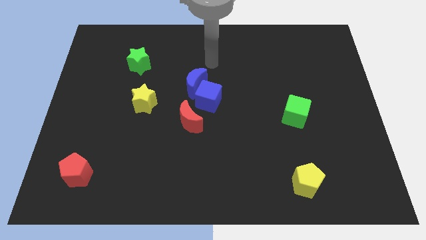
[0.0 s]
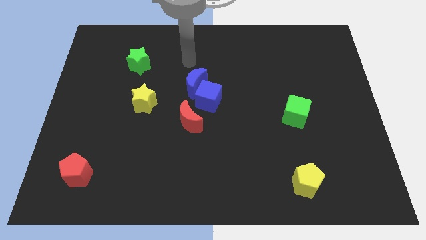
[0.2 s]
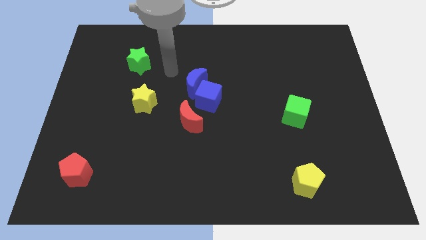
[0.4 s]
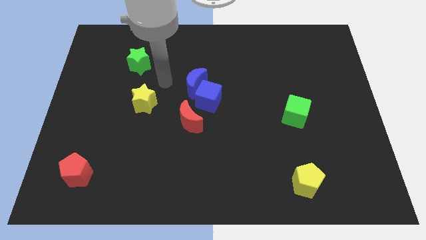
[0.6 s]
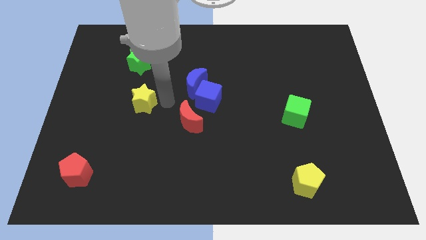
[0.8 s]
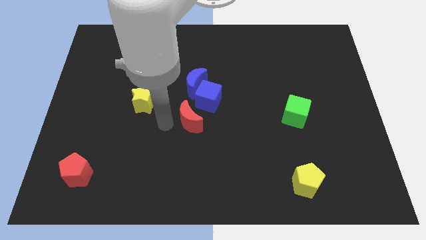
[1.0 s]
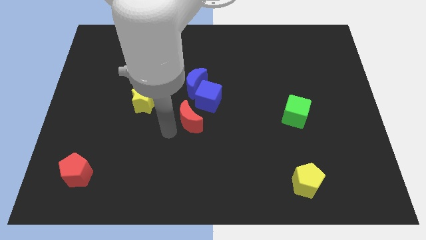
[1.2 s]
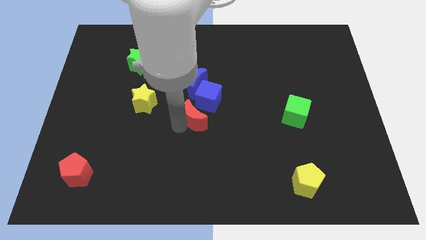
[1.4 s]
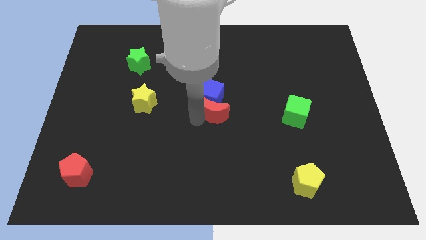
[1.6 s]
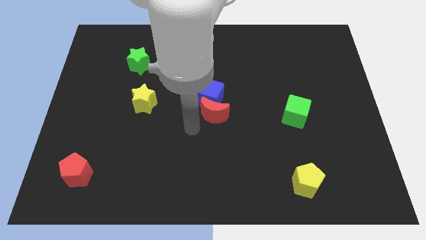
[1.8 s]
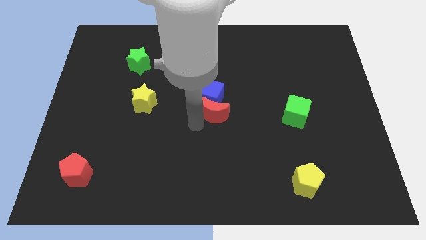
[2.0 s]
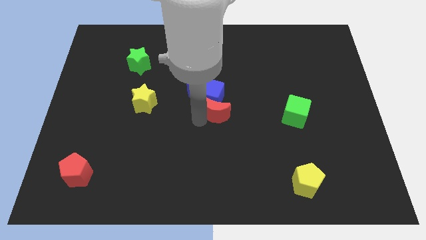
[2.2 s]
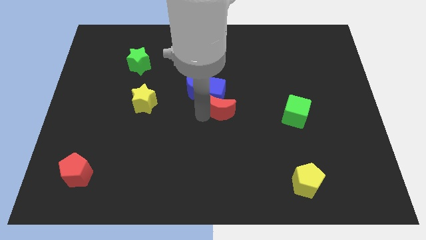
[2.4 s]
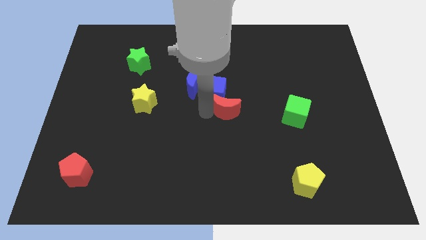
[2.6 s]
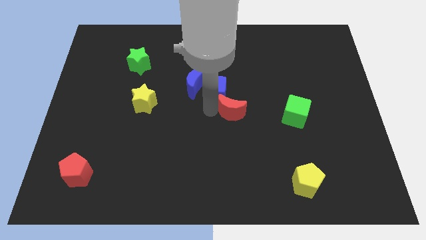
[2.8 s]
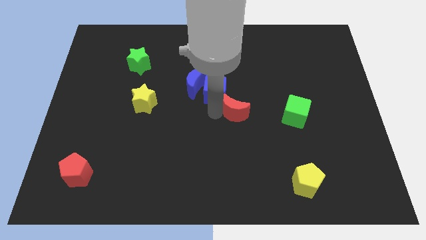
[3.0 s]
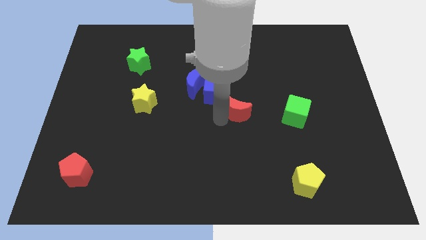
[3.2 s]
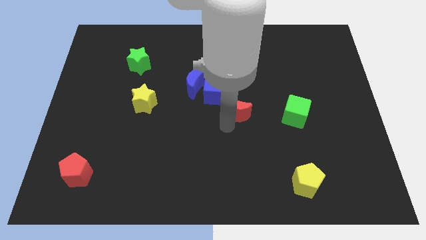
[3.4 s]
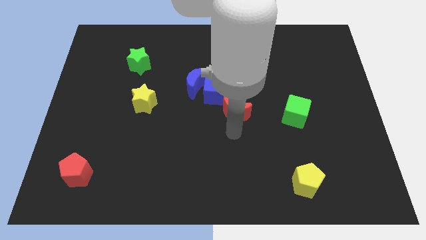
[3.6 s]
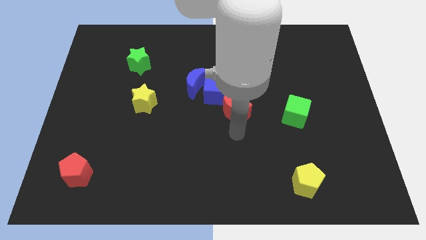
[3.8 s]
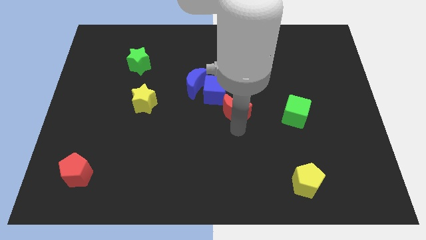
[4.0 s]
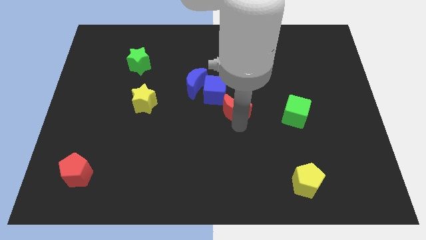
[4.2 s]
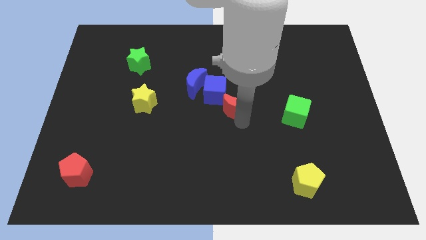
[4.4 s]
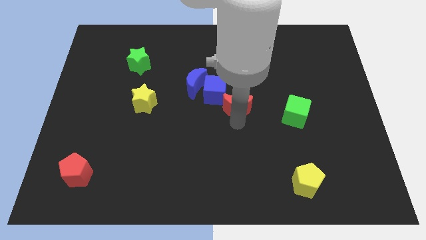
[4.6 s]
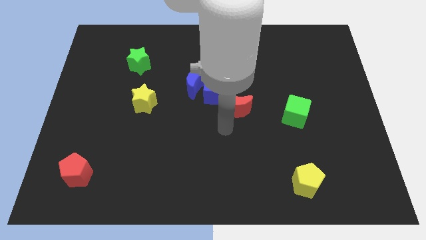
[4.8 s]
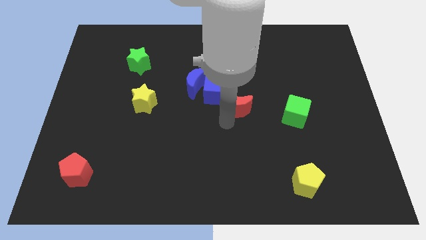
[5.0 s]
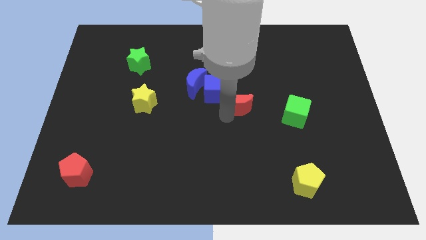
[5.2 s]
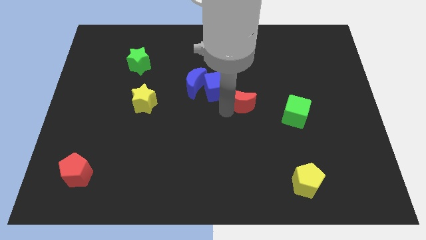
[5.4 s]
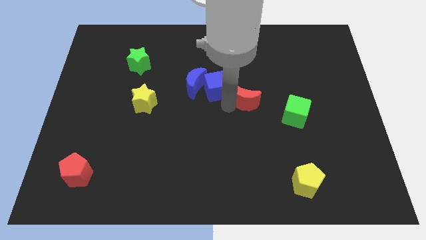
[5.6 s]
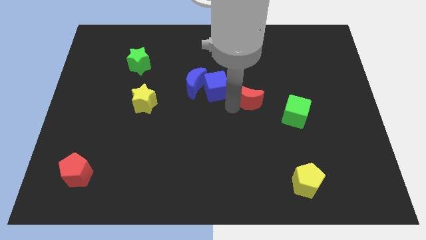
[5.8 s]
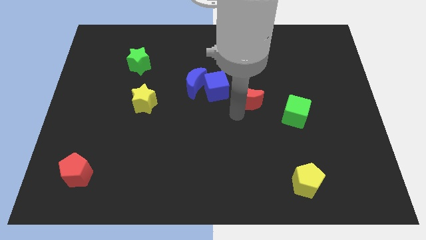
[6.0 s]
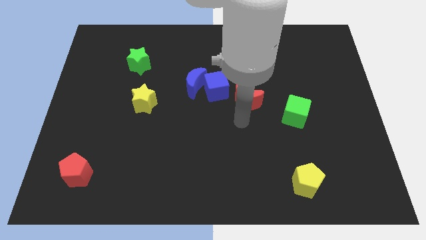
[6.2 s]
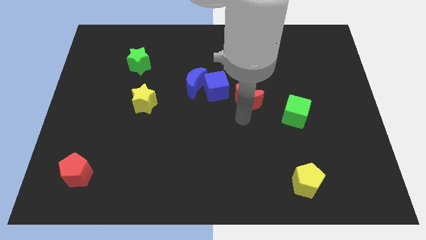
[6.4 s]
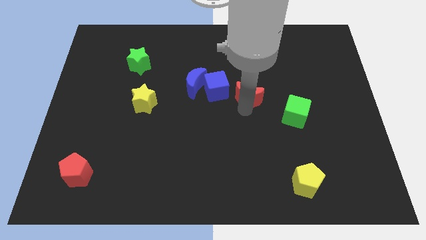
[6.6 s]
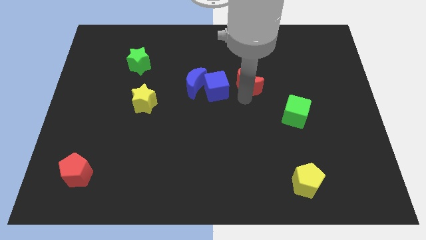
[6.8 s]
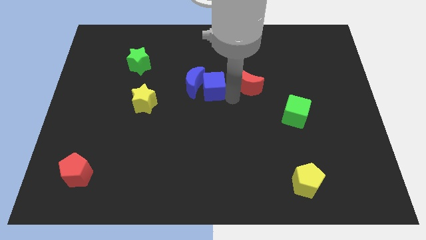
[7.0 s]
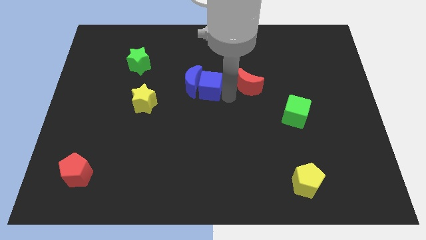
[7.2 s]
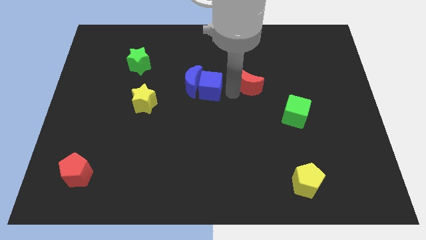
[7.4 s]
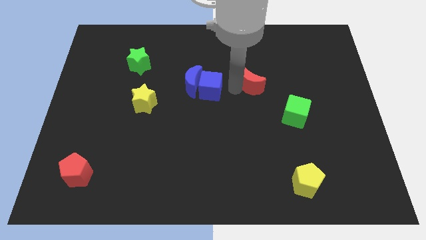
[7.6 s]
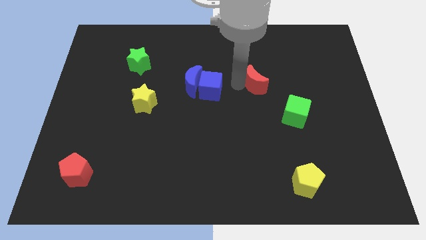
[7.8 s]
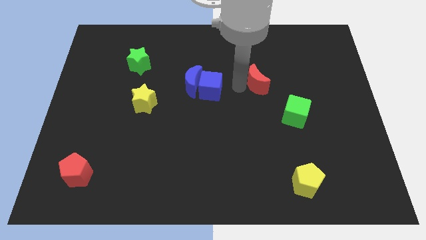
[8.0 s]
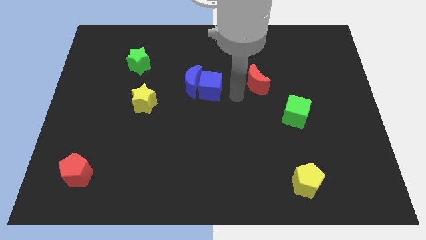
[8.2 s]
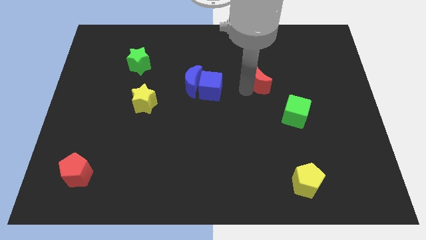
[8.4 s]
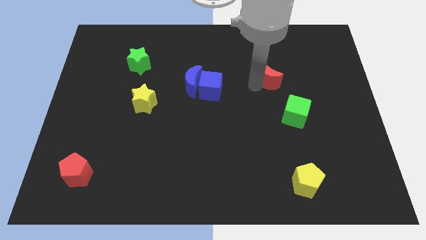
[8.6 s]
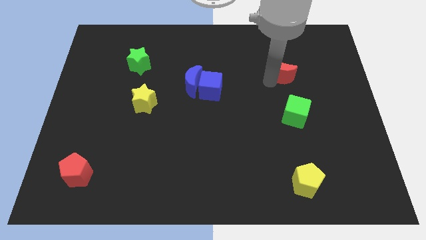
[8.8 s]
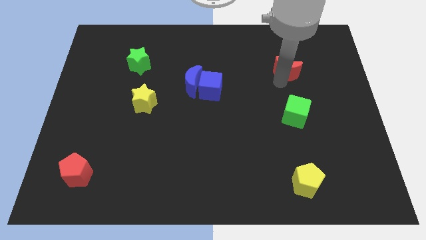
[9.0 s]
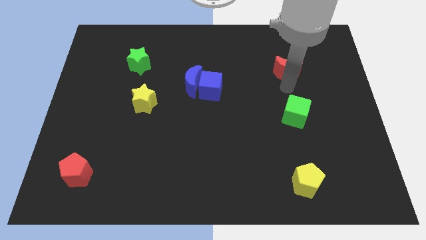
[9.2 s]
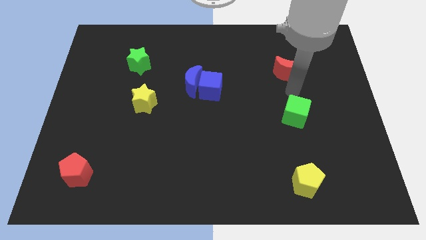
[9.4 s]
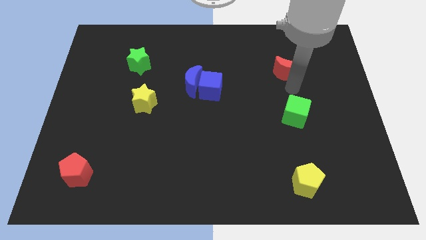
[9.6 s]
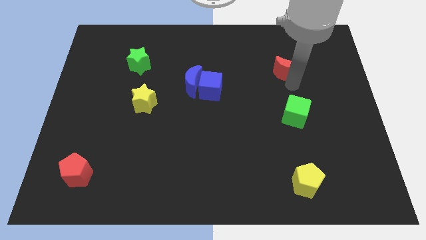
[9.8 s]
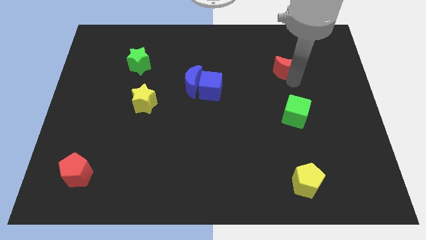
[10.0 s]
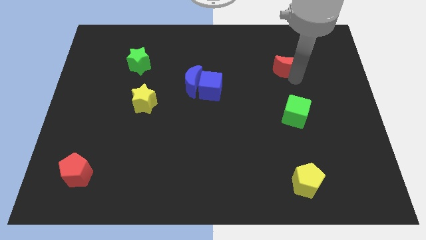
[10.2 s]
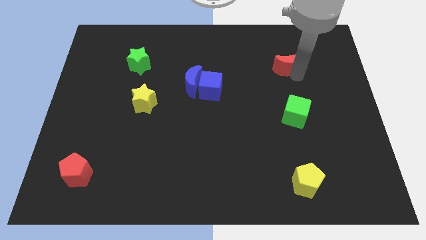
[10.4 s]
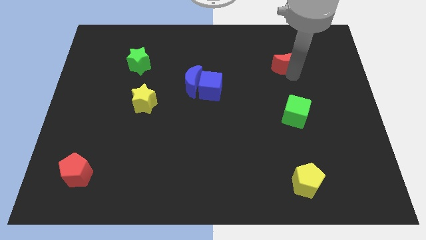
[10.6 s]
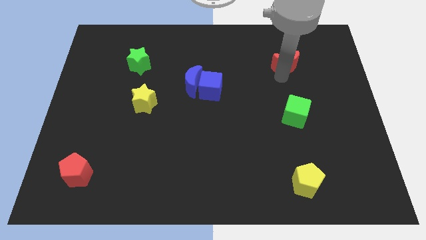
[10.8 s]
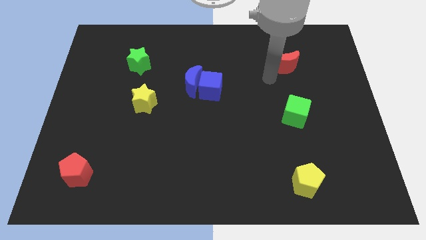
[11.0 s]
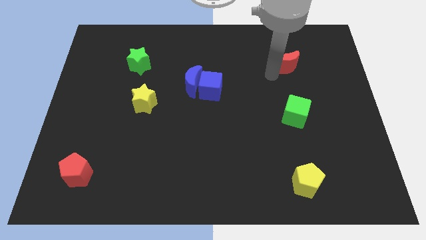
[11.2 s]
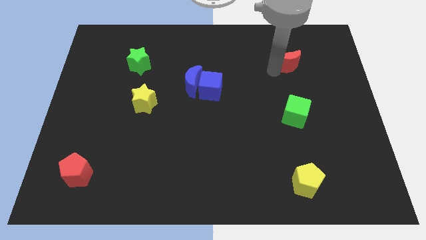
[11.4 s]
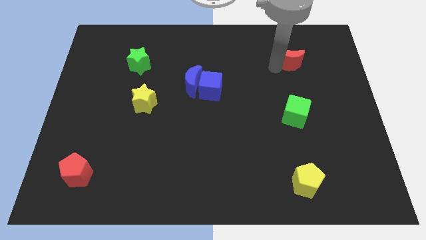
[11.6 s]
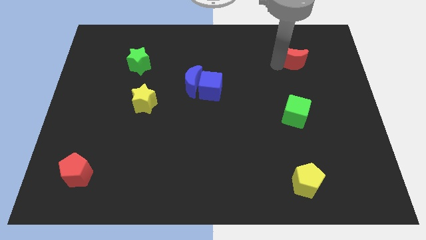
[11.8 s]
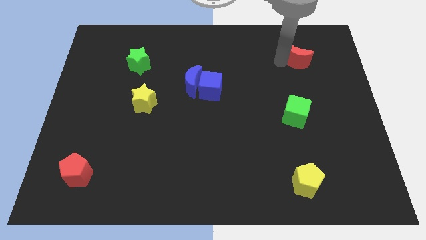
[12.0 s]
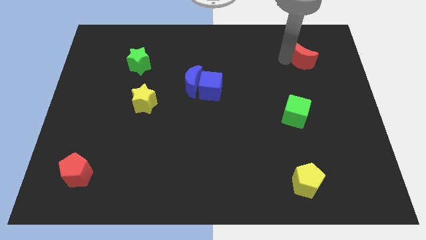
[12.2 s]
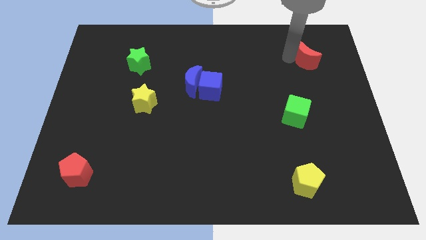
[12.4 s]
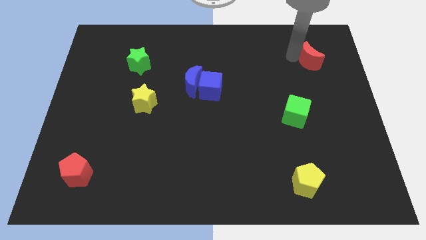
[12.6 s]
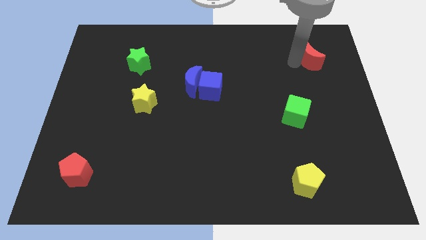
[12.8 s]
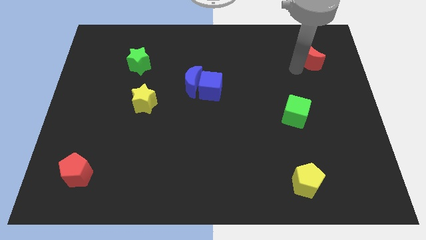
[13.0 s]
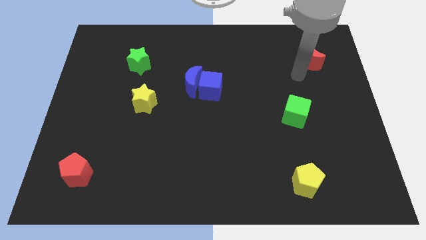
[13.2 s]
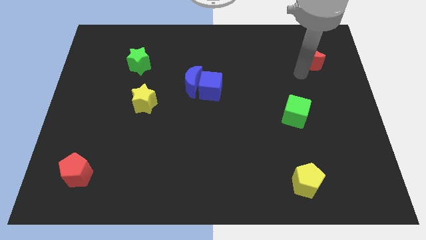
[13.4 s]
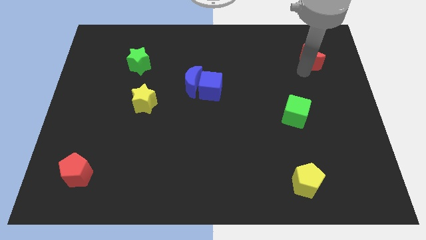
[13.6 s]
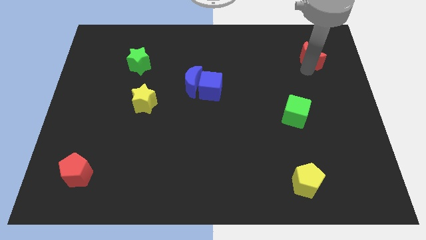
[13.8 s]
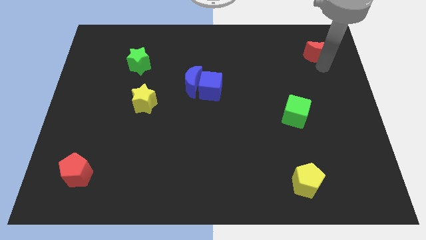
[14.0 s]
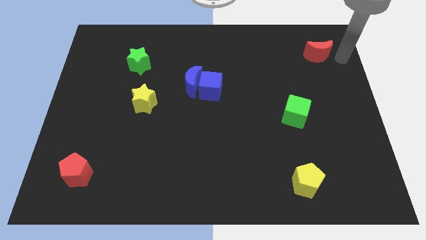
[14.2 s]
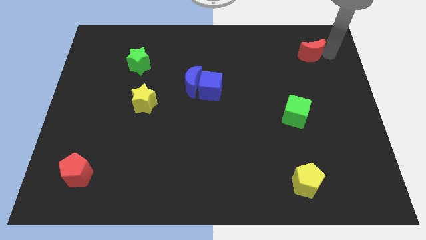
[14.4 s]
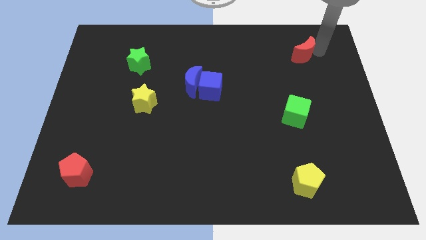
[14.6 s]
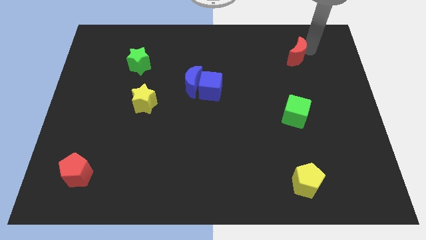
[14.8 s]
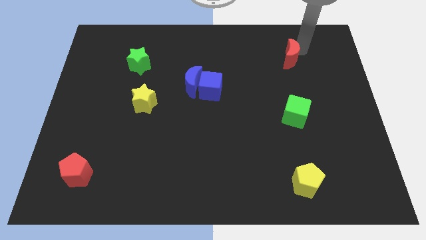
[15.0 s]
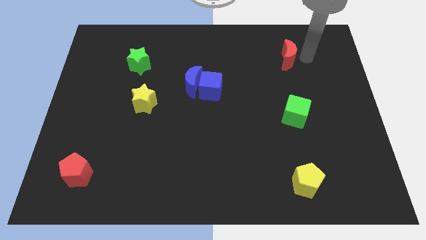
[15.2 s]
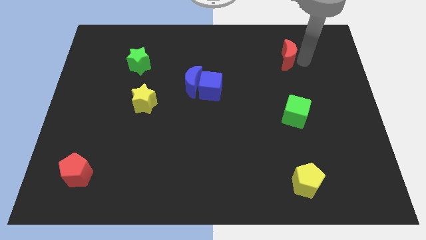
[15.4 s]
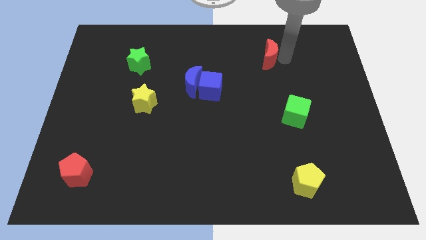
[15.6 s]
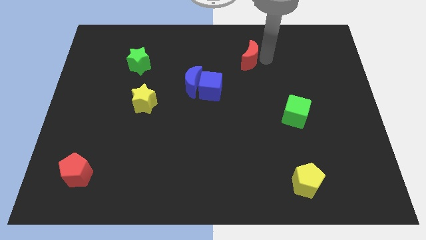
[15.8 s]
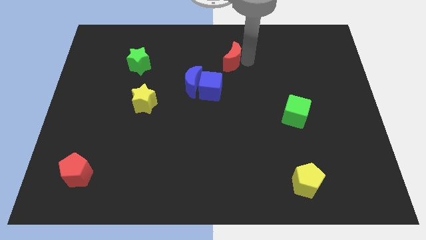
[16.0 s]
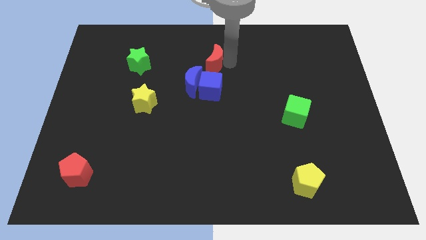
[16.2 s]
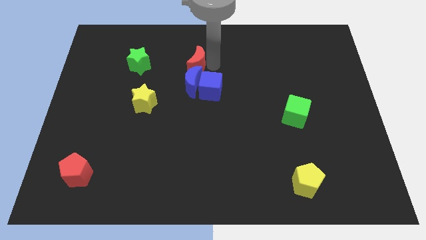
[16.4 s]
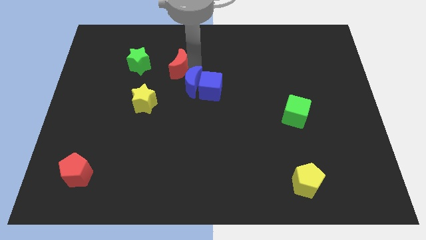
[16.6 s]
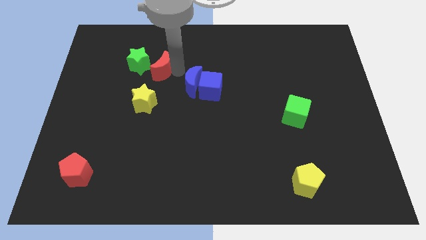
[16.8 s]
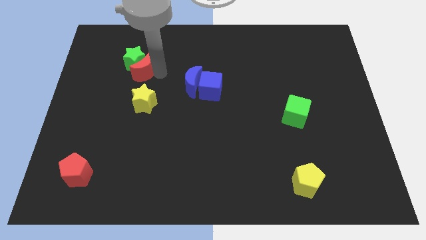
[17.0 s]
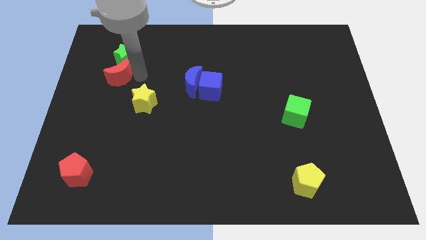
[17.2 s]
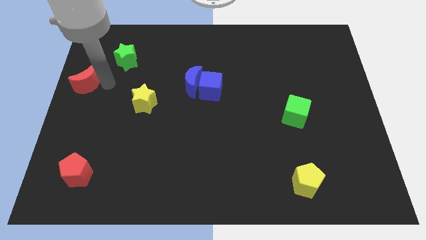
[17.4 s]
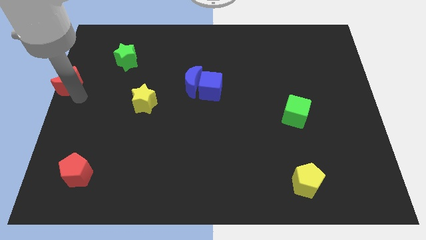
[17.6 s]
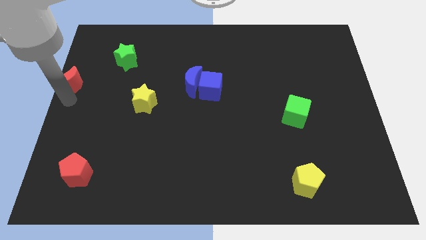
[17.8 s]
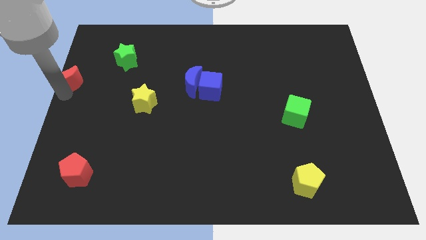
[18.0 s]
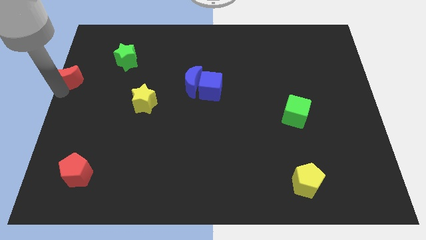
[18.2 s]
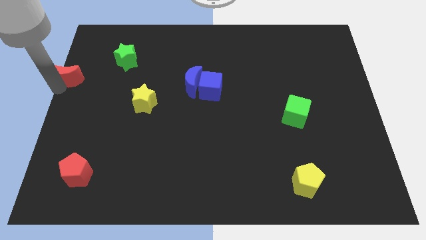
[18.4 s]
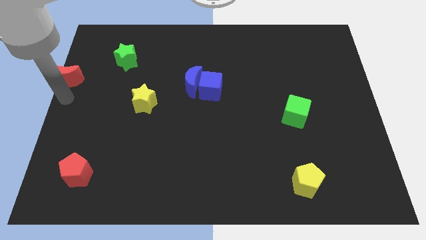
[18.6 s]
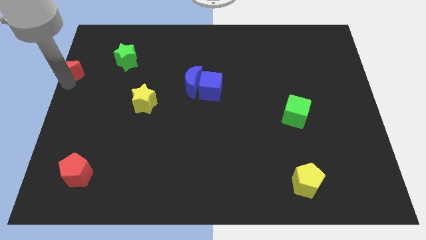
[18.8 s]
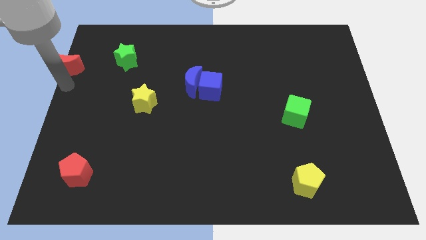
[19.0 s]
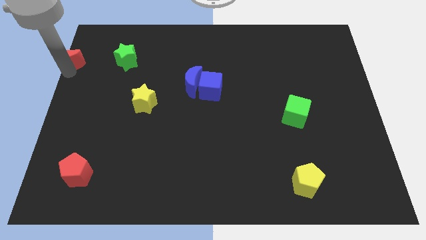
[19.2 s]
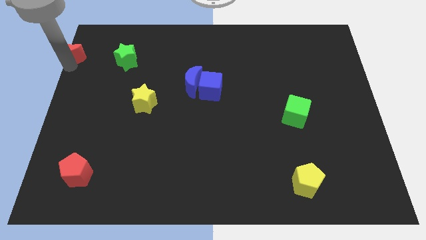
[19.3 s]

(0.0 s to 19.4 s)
slide the red moon to the upper left corner
